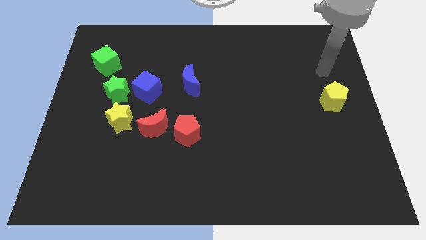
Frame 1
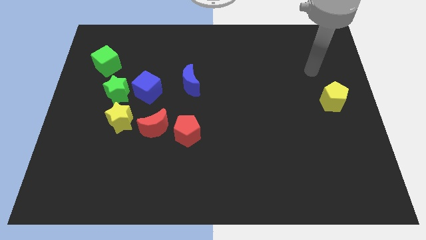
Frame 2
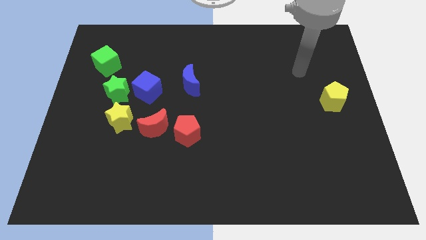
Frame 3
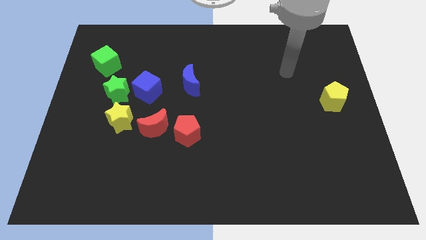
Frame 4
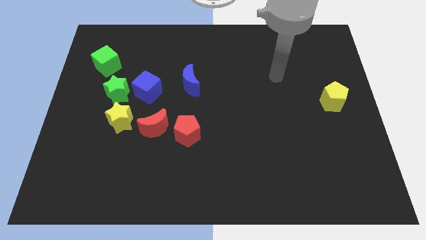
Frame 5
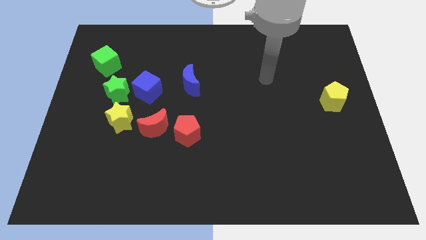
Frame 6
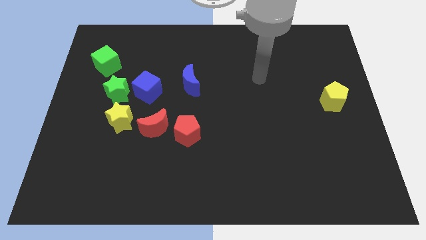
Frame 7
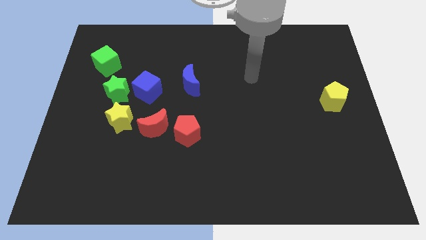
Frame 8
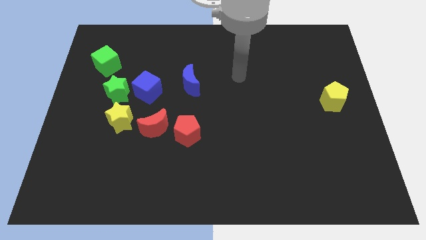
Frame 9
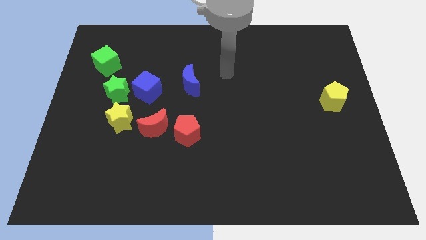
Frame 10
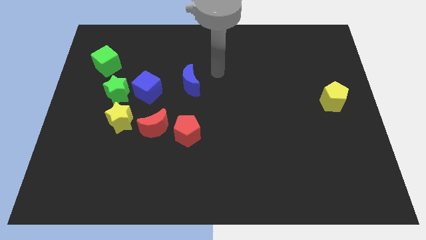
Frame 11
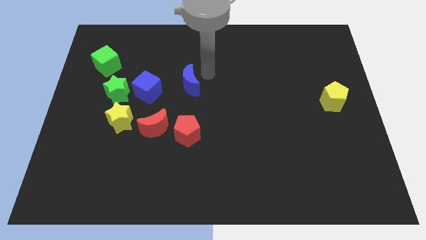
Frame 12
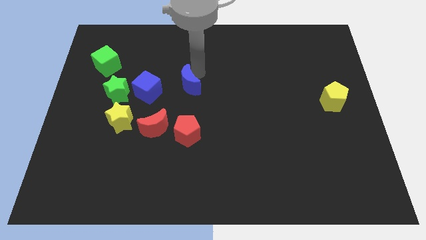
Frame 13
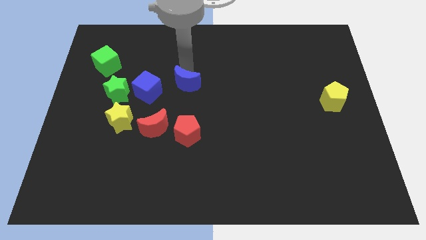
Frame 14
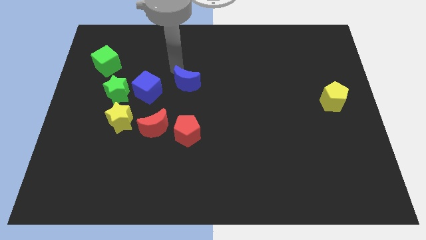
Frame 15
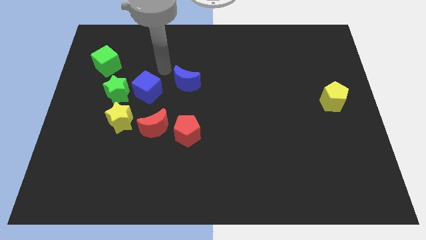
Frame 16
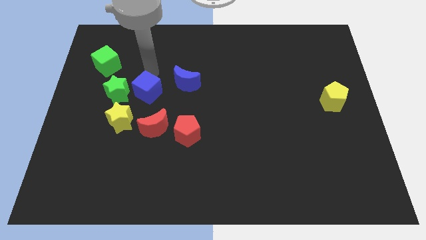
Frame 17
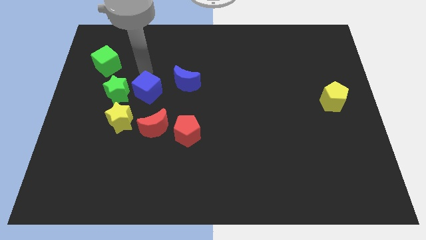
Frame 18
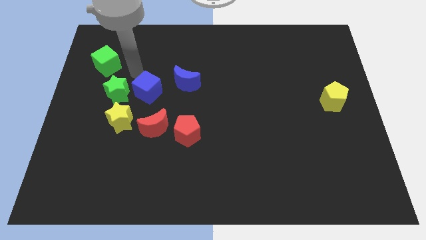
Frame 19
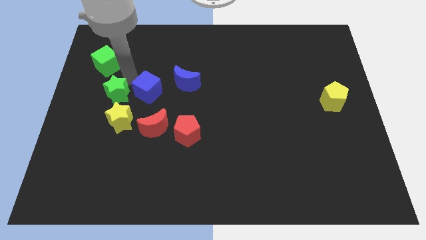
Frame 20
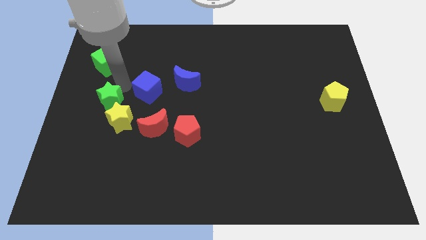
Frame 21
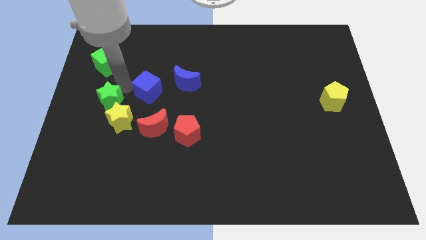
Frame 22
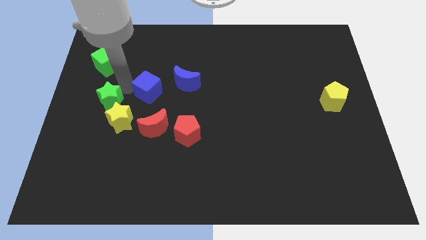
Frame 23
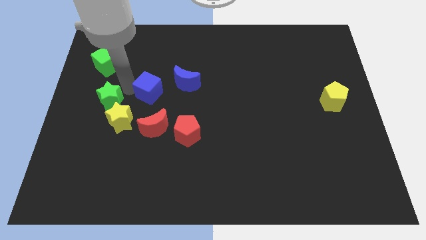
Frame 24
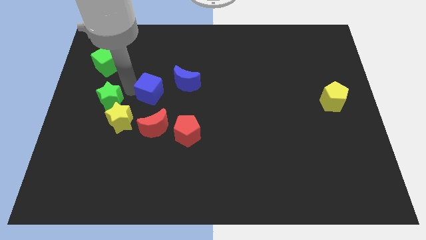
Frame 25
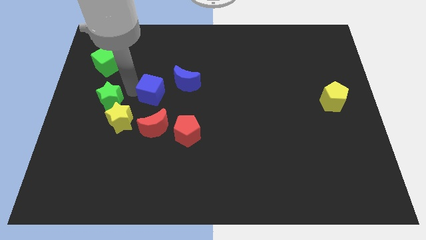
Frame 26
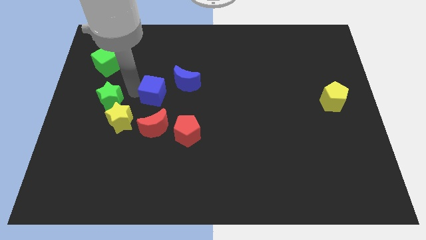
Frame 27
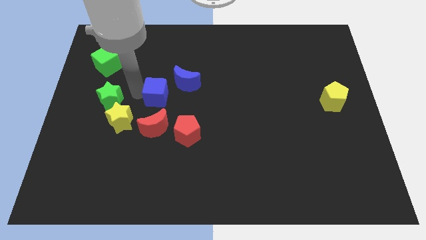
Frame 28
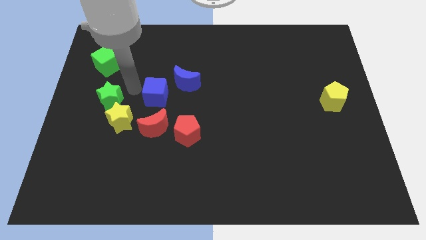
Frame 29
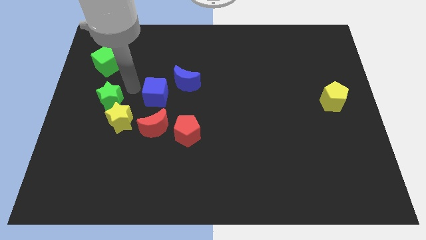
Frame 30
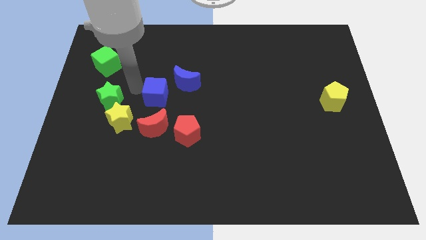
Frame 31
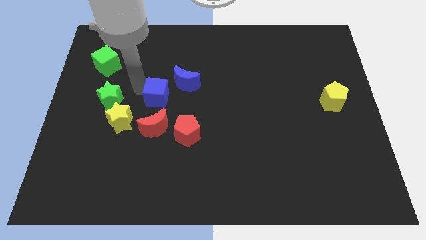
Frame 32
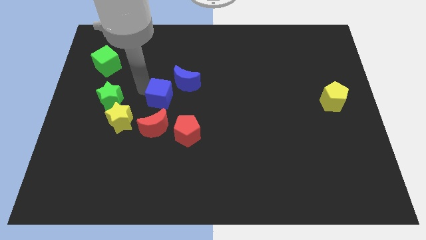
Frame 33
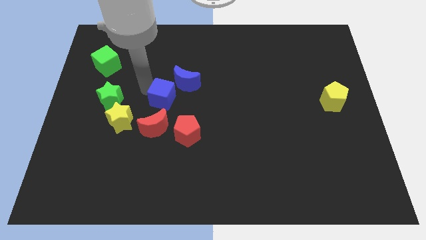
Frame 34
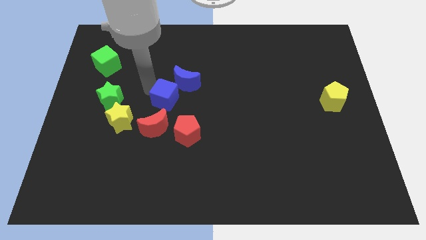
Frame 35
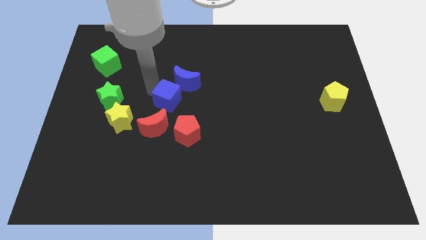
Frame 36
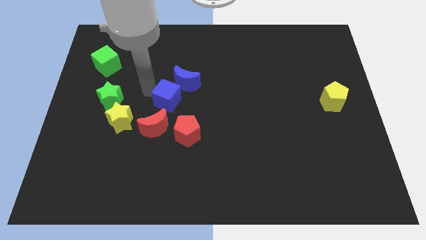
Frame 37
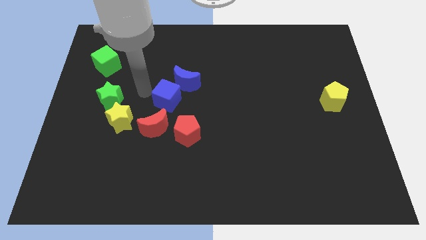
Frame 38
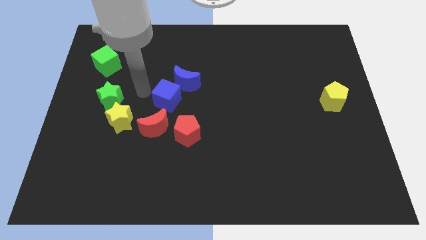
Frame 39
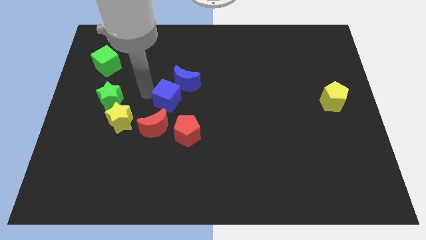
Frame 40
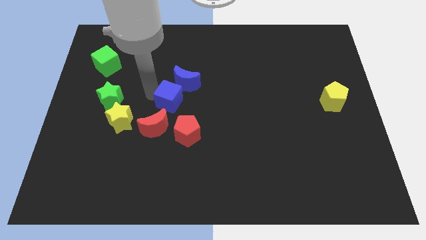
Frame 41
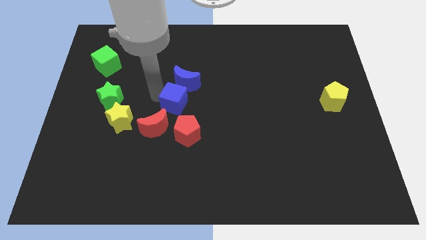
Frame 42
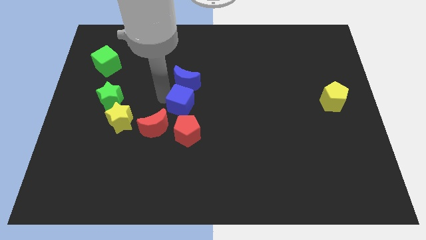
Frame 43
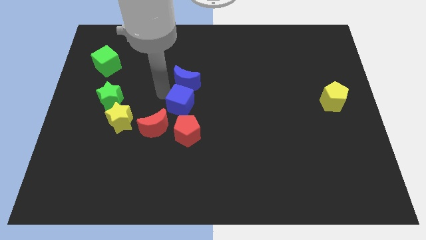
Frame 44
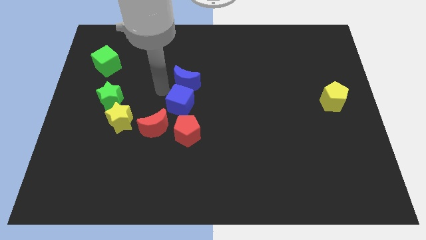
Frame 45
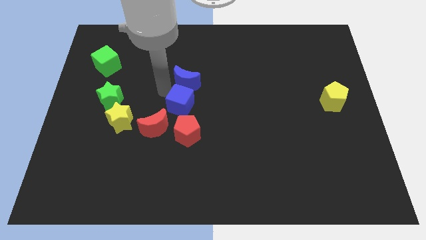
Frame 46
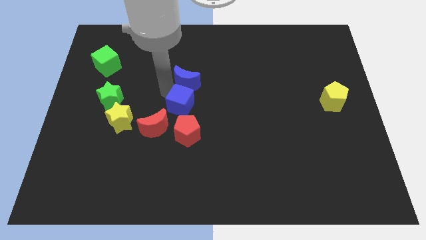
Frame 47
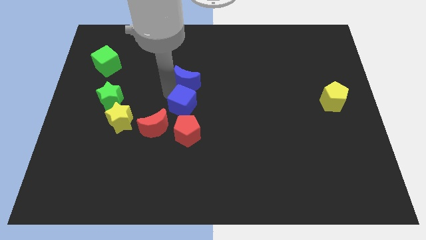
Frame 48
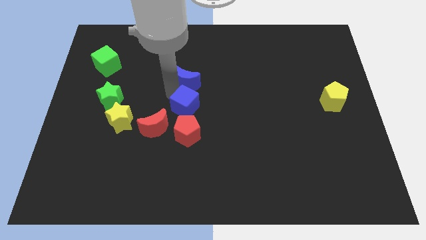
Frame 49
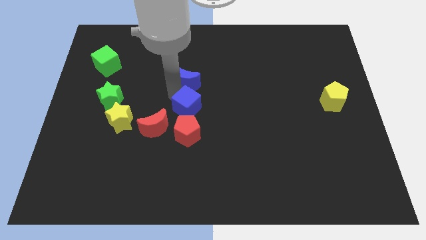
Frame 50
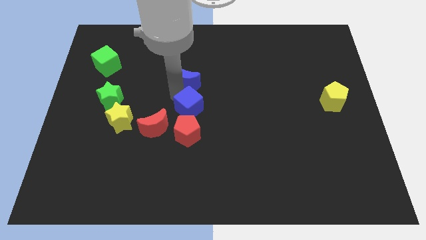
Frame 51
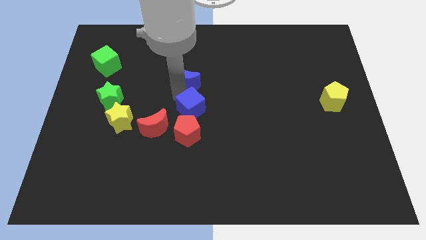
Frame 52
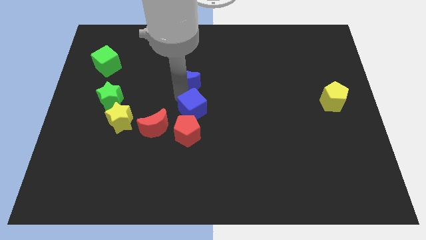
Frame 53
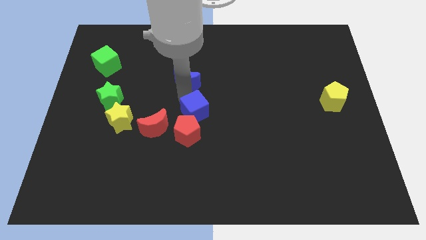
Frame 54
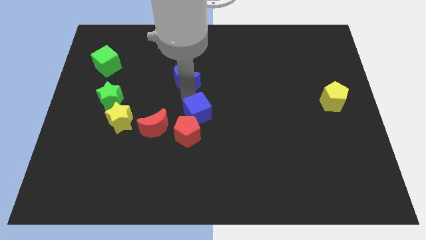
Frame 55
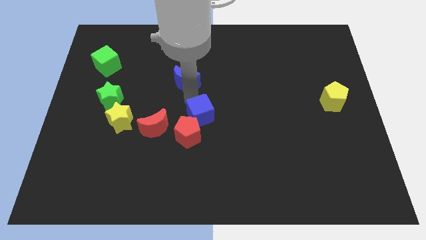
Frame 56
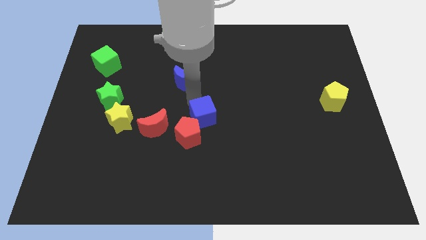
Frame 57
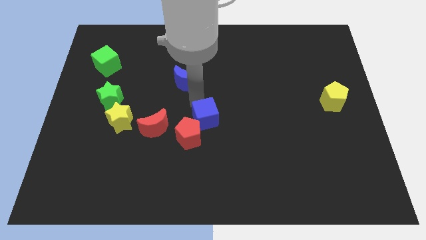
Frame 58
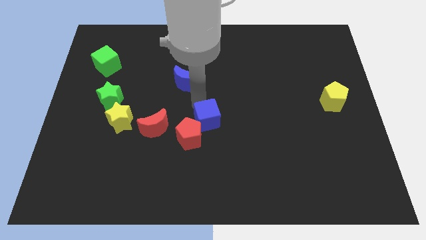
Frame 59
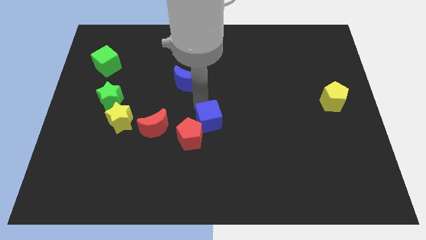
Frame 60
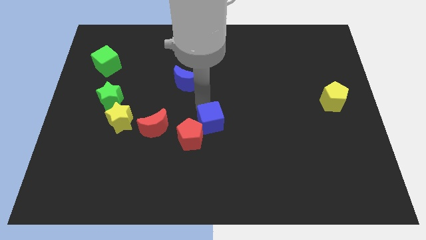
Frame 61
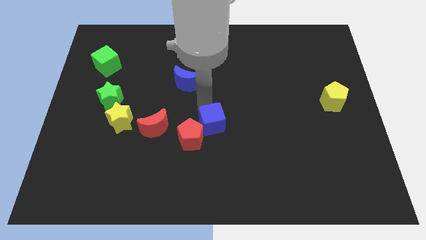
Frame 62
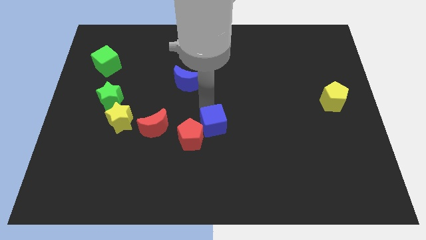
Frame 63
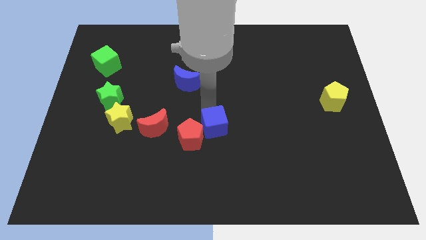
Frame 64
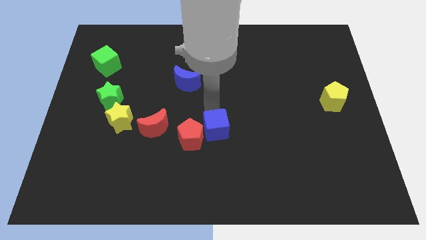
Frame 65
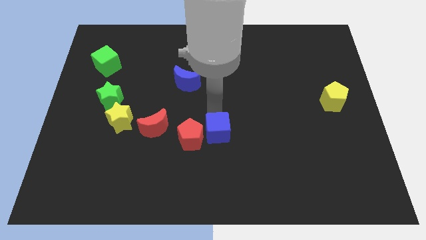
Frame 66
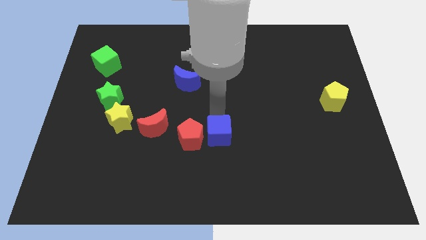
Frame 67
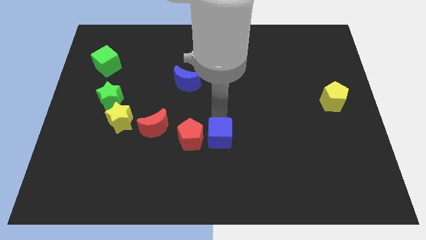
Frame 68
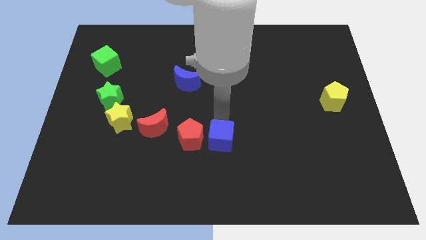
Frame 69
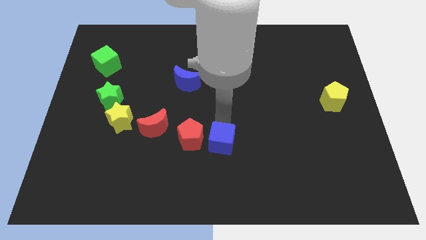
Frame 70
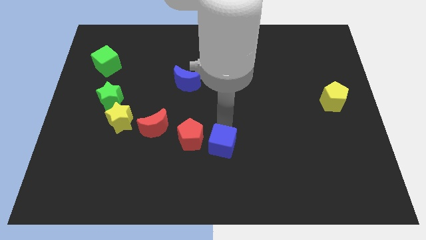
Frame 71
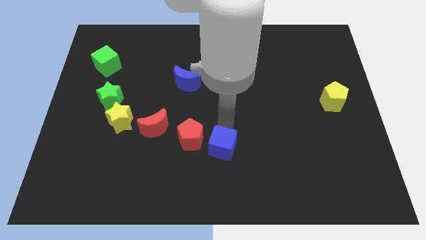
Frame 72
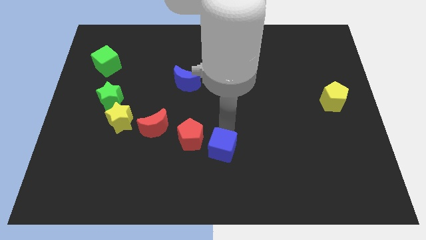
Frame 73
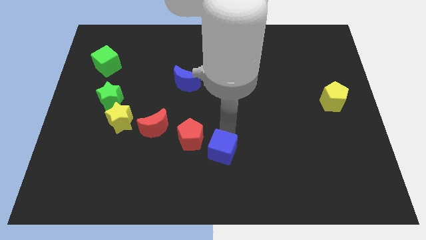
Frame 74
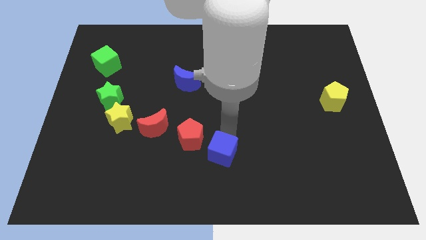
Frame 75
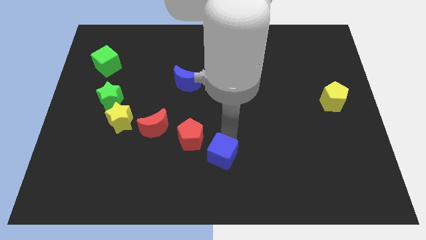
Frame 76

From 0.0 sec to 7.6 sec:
put the blue cube to the bottom side
